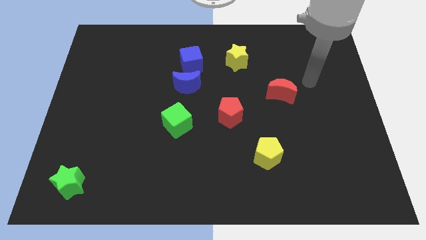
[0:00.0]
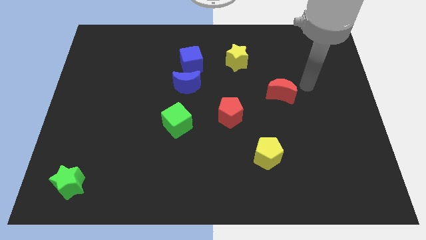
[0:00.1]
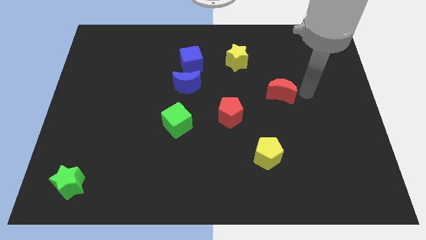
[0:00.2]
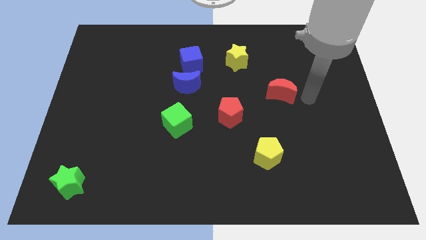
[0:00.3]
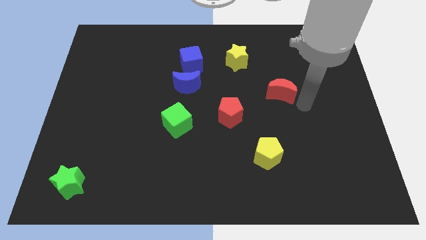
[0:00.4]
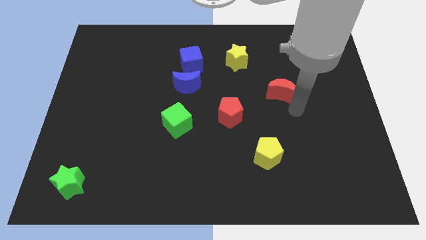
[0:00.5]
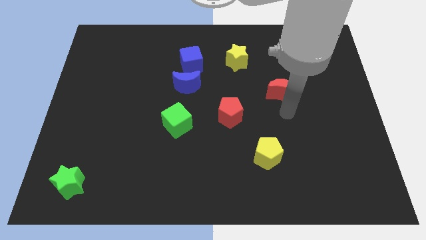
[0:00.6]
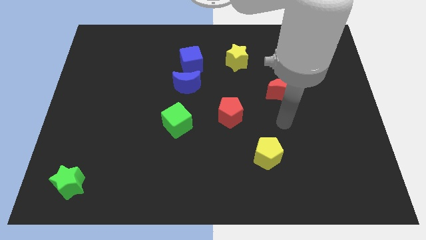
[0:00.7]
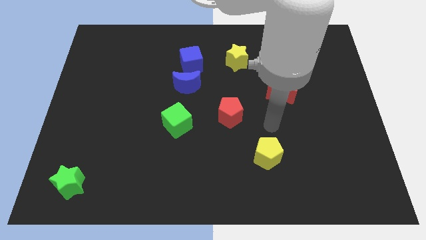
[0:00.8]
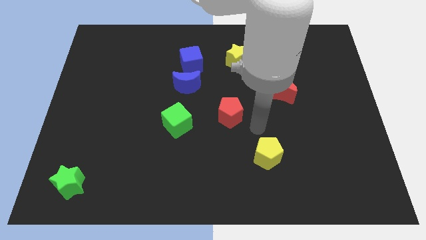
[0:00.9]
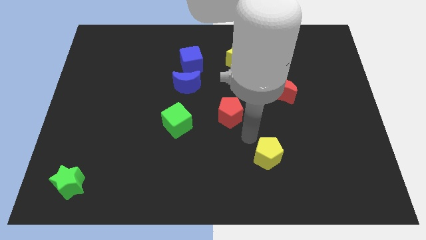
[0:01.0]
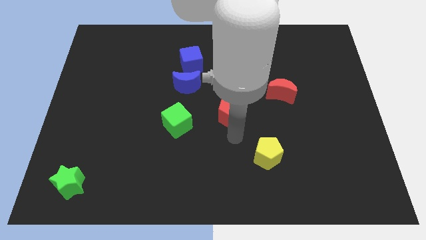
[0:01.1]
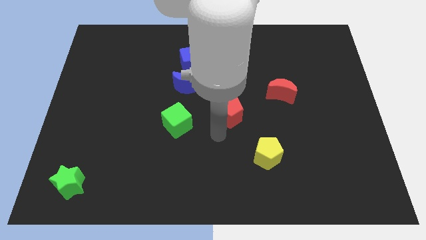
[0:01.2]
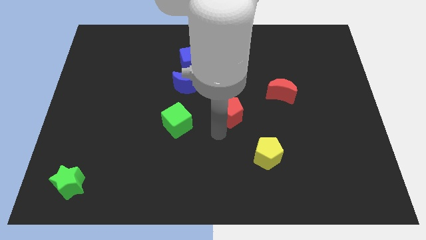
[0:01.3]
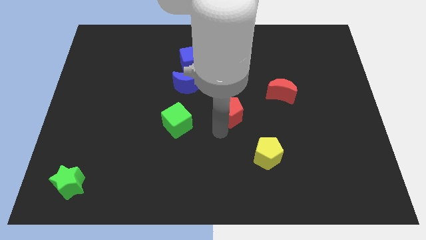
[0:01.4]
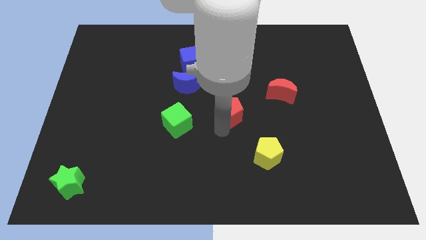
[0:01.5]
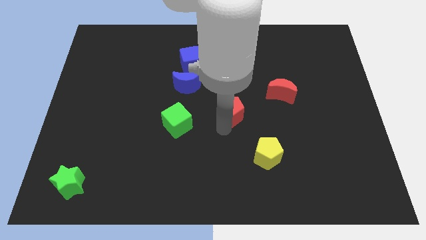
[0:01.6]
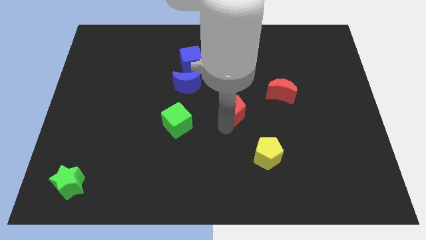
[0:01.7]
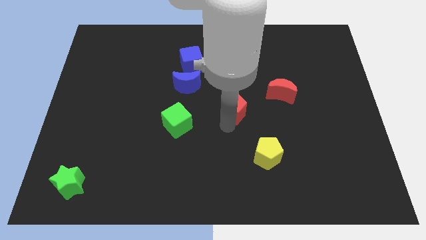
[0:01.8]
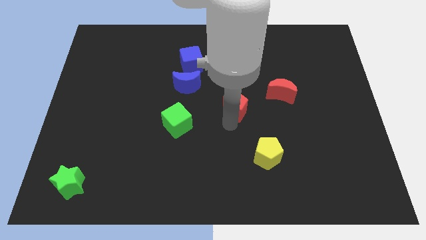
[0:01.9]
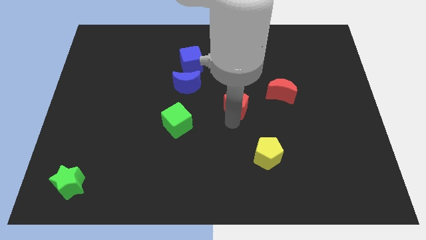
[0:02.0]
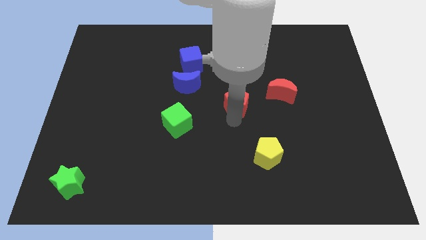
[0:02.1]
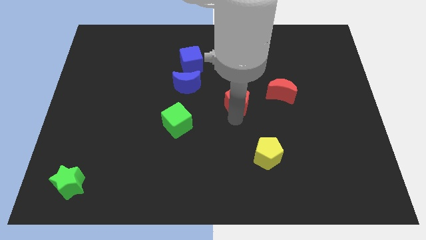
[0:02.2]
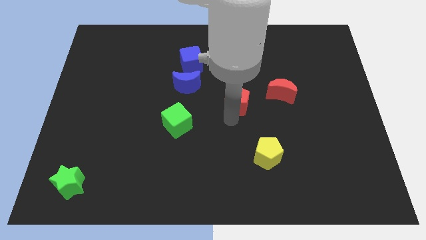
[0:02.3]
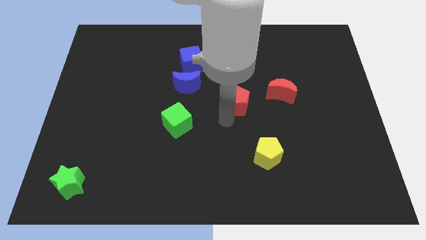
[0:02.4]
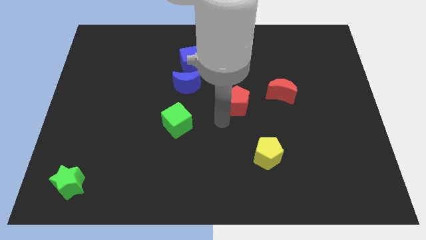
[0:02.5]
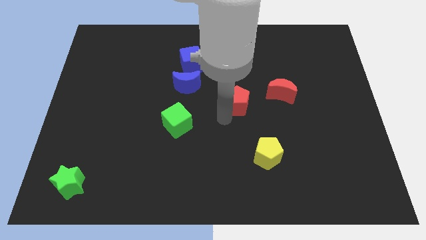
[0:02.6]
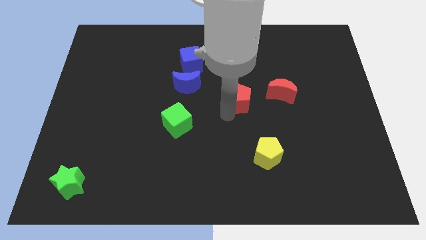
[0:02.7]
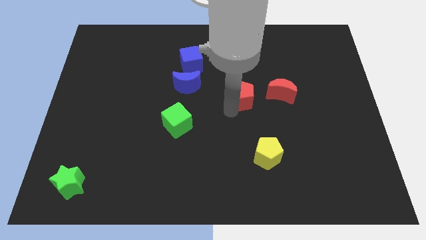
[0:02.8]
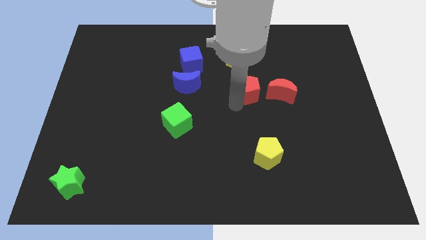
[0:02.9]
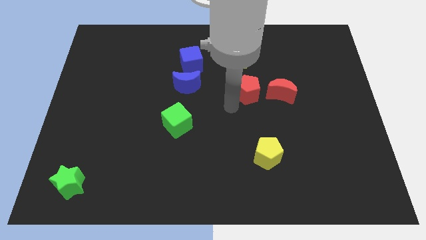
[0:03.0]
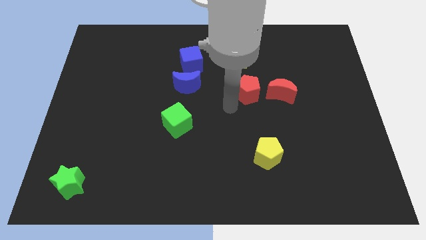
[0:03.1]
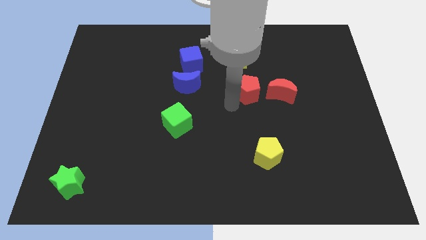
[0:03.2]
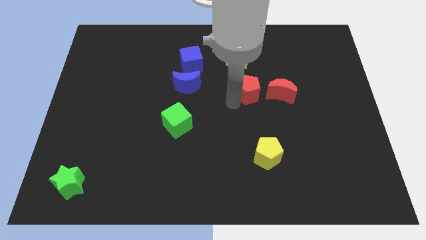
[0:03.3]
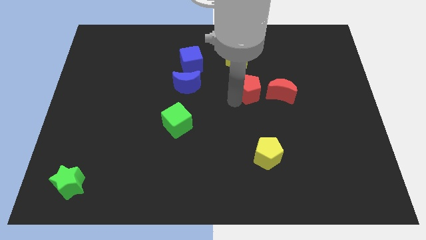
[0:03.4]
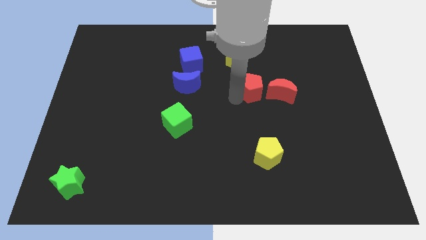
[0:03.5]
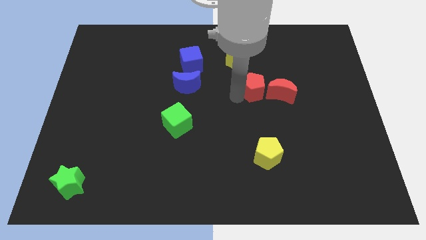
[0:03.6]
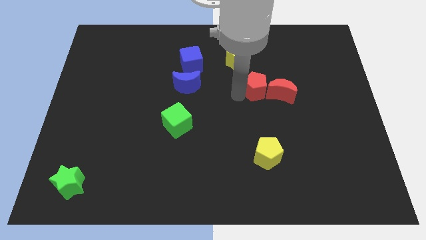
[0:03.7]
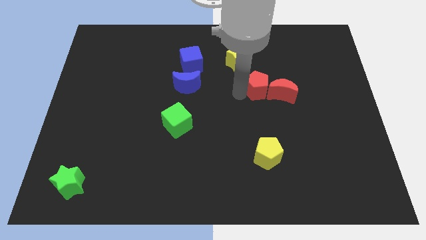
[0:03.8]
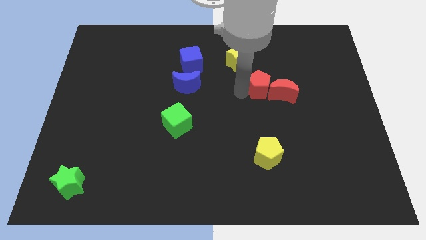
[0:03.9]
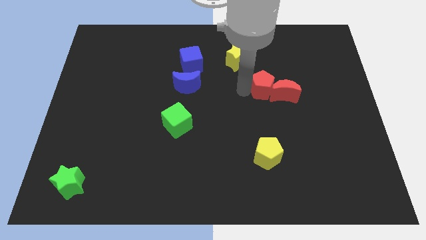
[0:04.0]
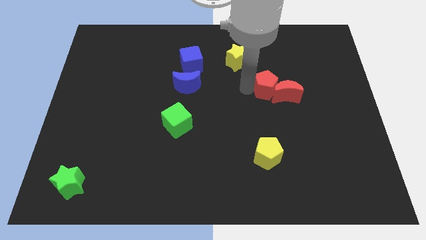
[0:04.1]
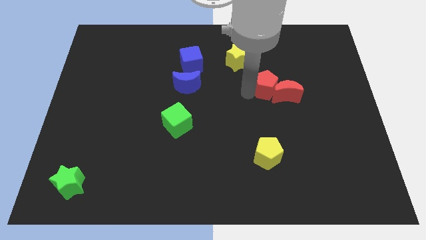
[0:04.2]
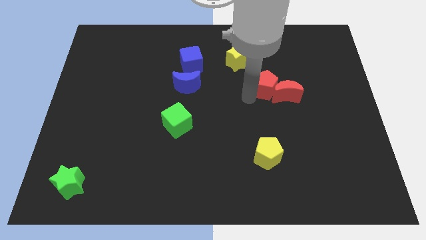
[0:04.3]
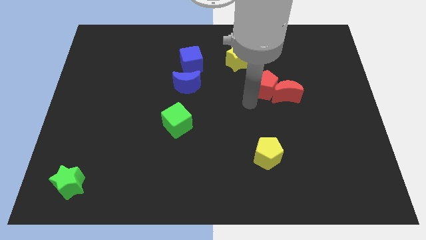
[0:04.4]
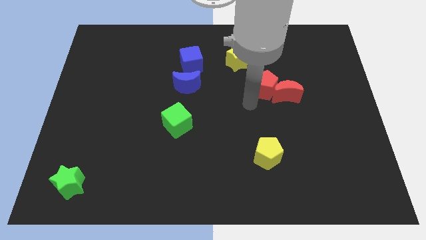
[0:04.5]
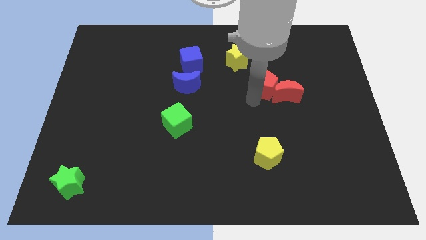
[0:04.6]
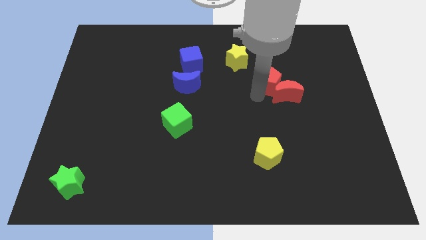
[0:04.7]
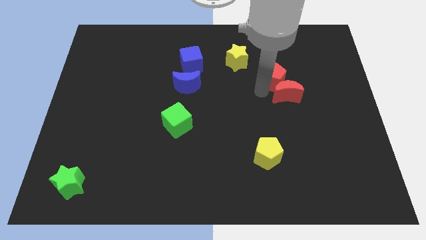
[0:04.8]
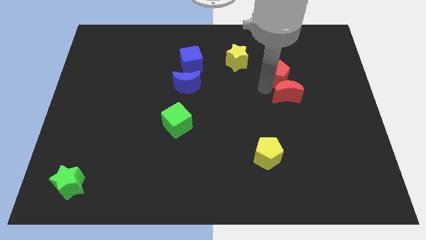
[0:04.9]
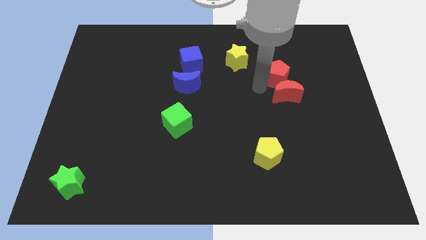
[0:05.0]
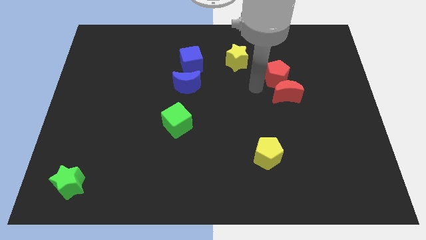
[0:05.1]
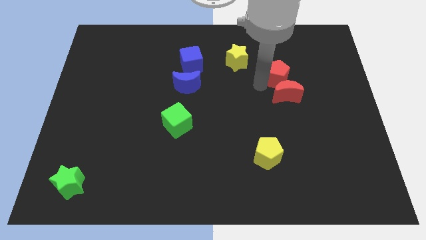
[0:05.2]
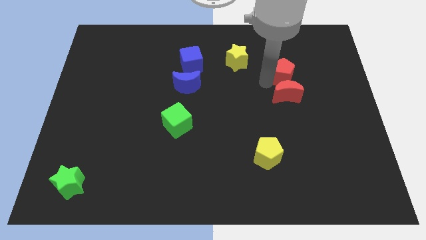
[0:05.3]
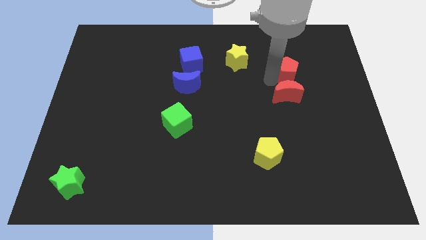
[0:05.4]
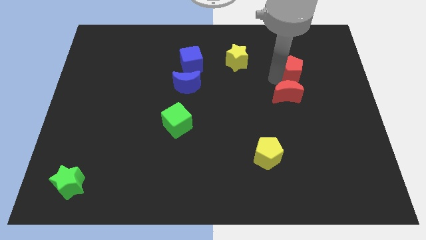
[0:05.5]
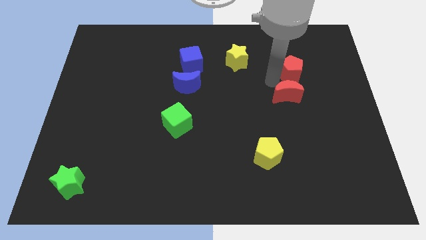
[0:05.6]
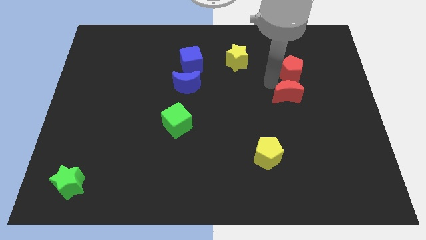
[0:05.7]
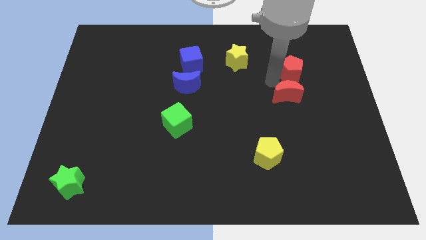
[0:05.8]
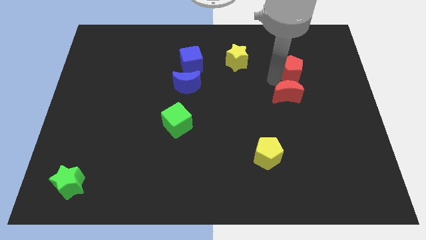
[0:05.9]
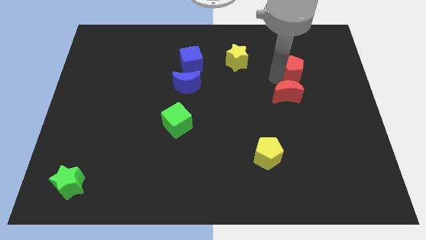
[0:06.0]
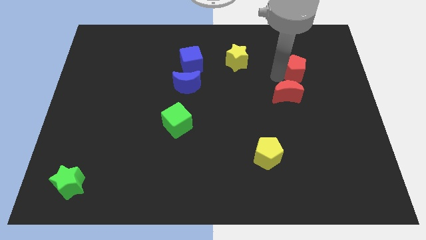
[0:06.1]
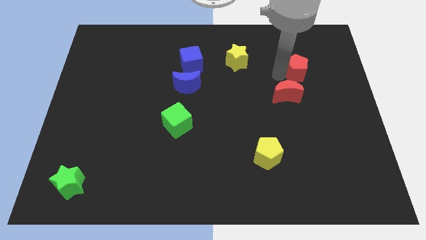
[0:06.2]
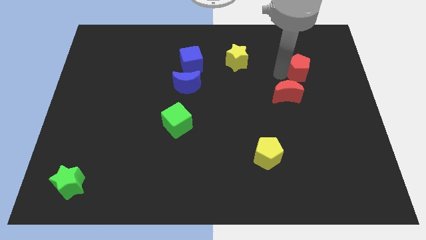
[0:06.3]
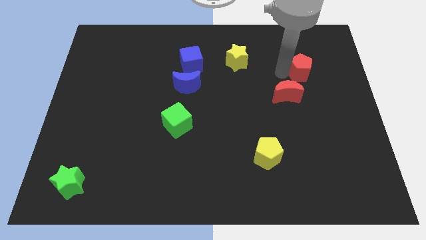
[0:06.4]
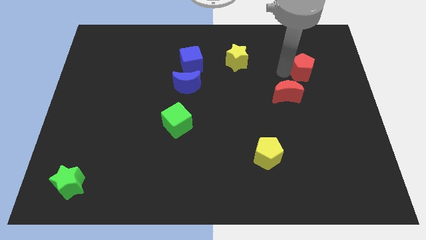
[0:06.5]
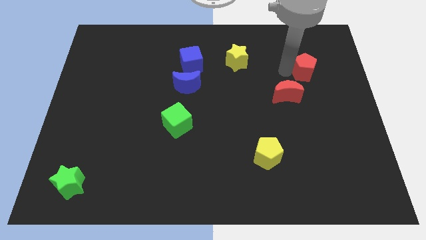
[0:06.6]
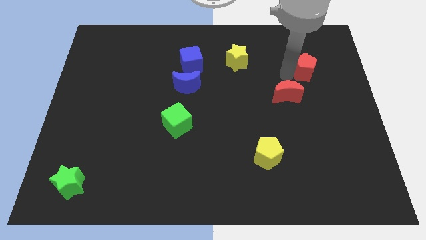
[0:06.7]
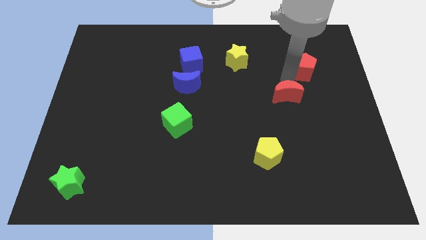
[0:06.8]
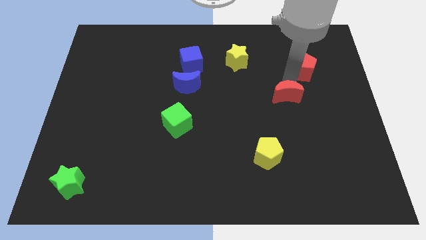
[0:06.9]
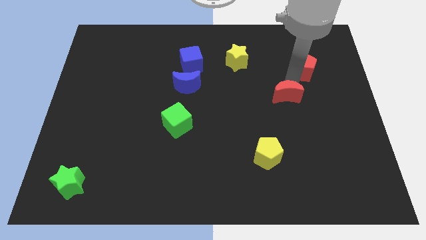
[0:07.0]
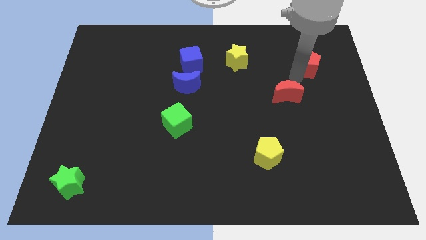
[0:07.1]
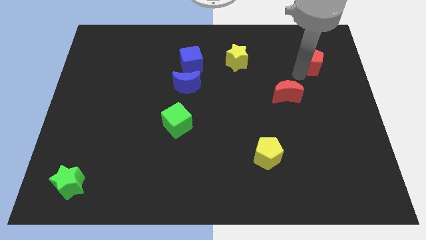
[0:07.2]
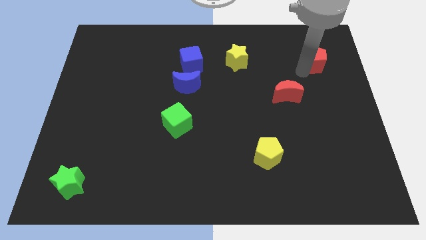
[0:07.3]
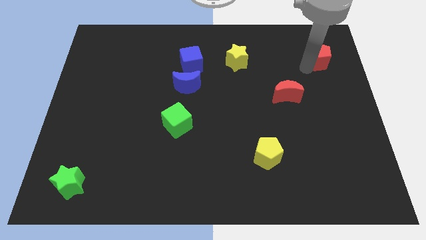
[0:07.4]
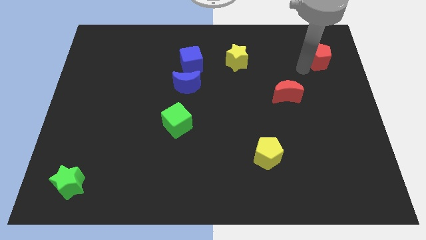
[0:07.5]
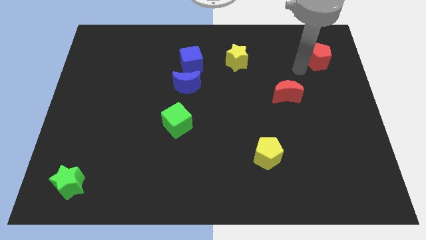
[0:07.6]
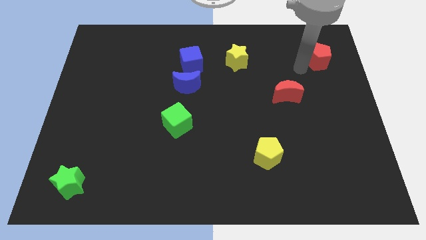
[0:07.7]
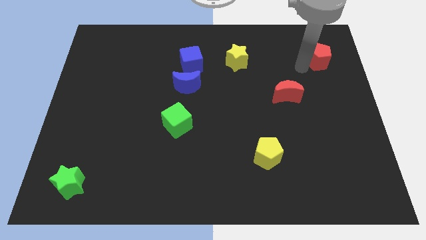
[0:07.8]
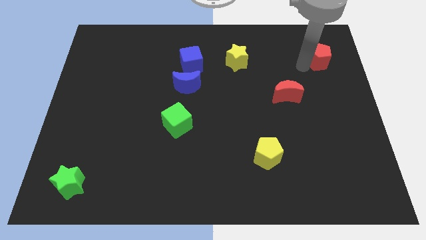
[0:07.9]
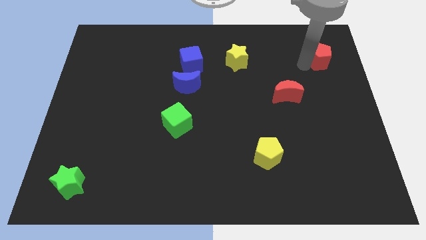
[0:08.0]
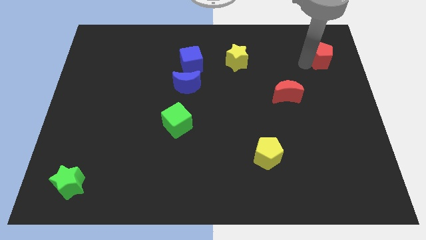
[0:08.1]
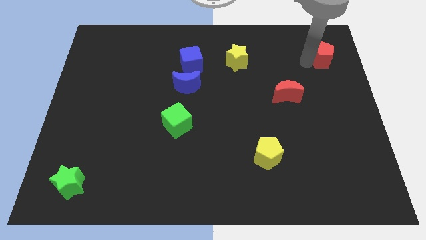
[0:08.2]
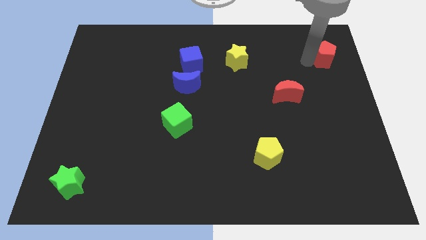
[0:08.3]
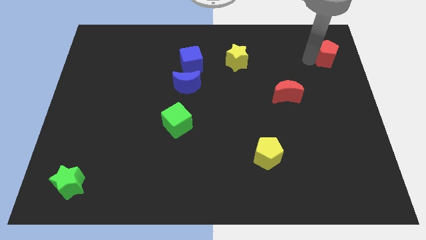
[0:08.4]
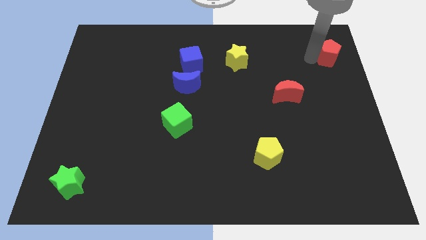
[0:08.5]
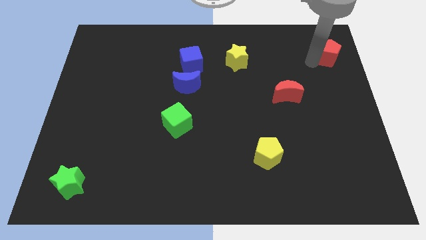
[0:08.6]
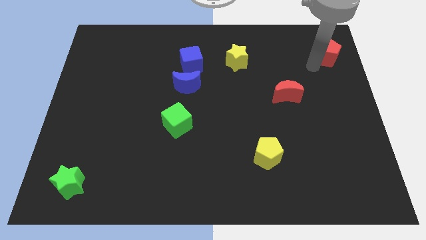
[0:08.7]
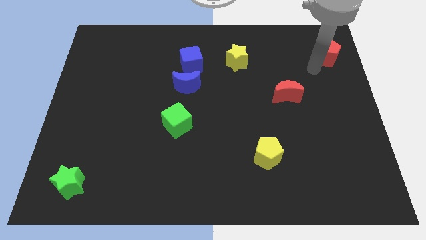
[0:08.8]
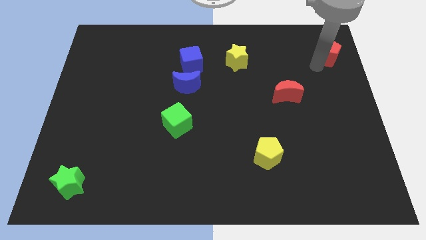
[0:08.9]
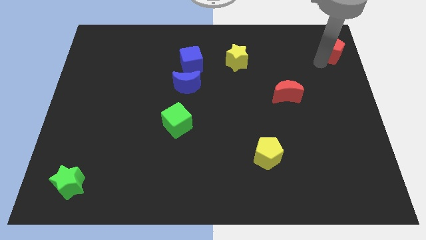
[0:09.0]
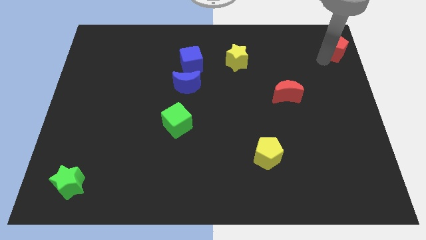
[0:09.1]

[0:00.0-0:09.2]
slide the red pentagon to the upper right corner
